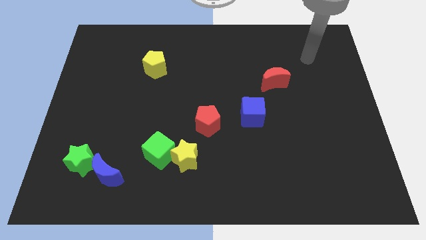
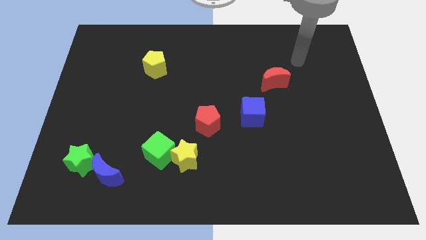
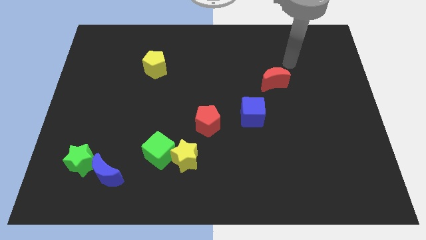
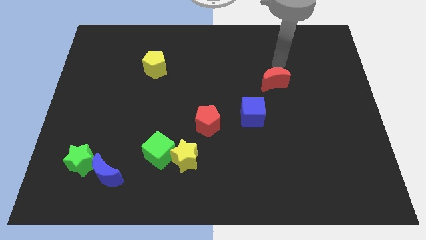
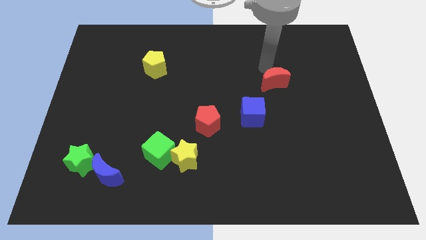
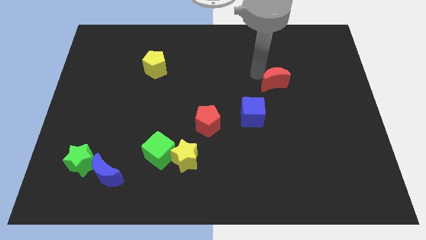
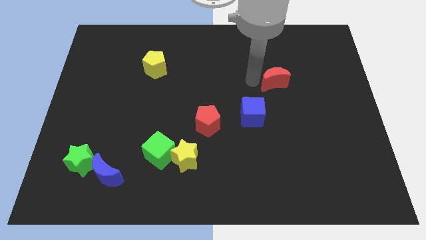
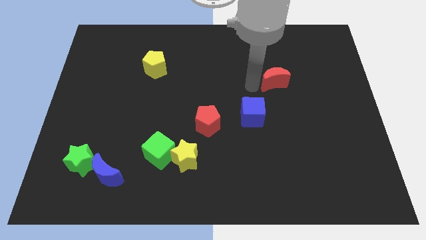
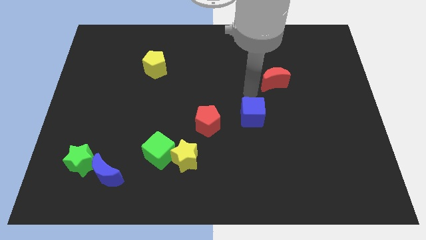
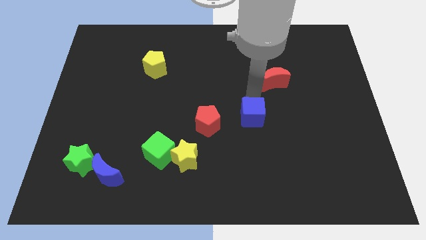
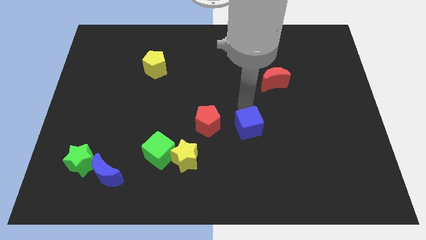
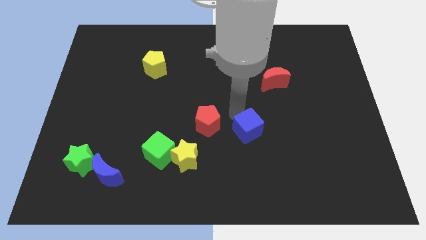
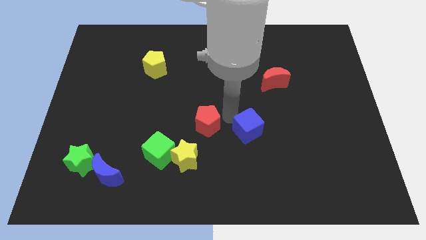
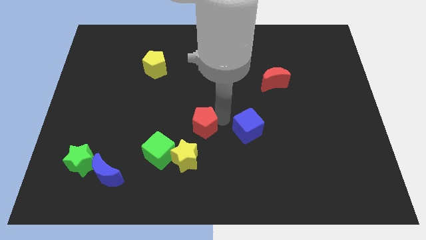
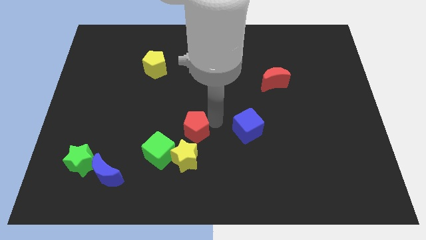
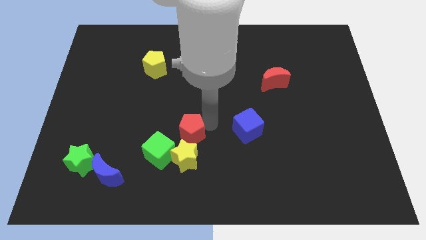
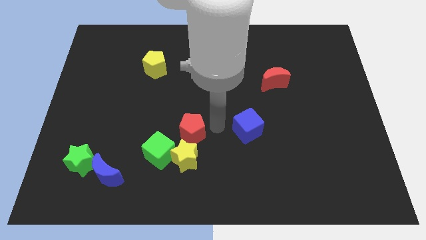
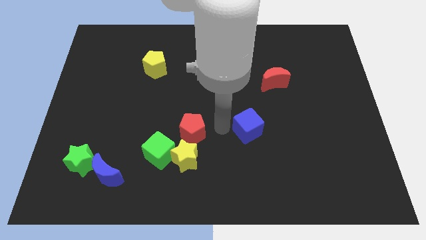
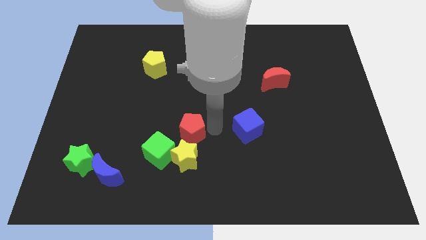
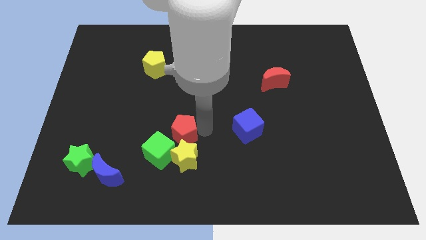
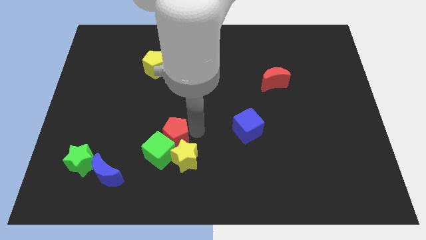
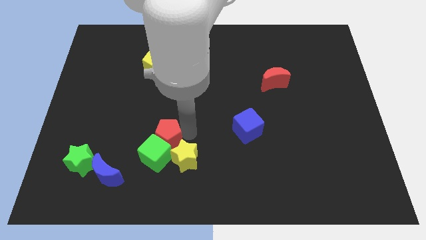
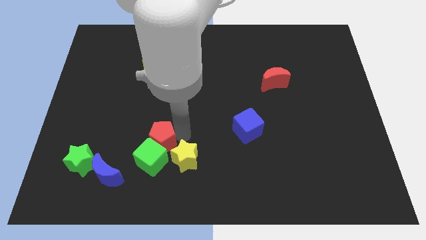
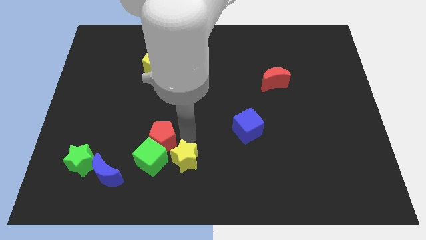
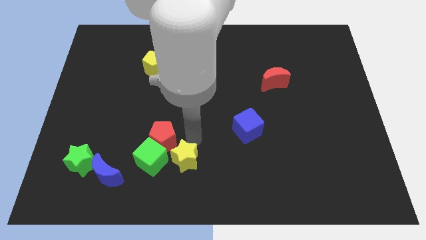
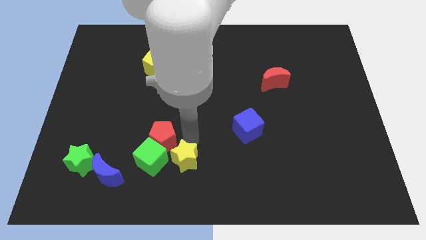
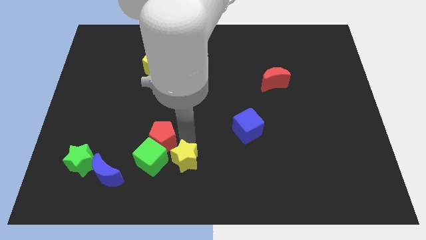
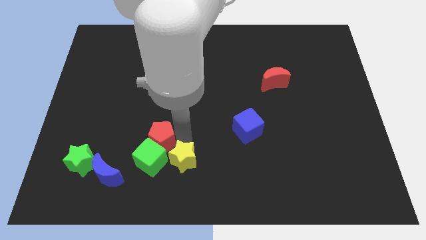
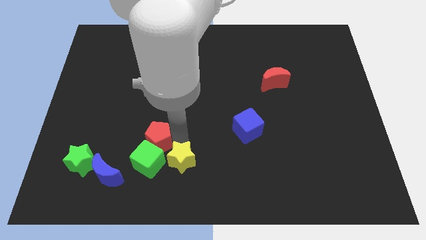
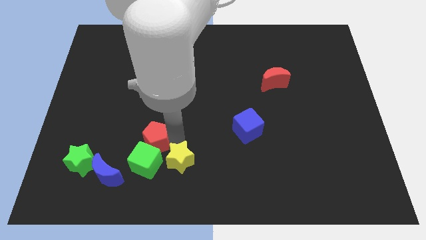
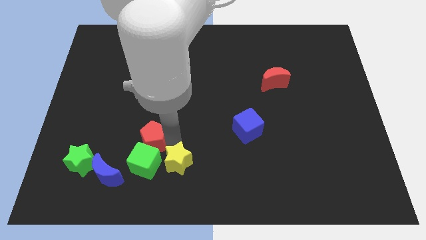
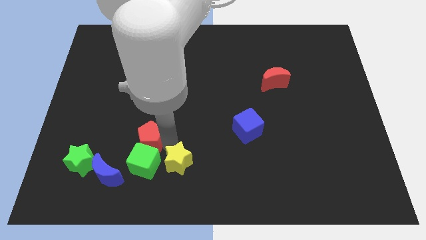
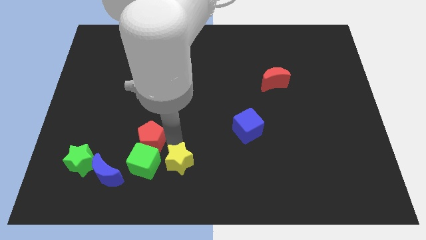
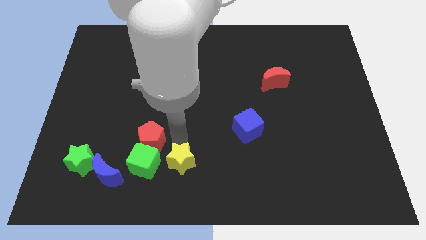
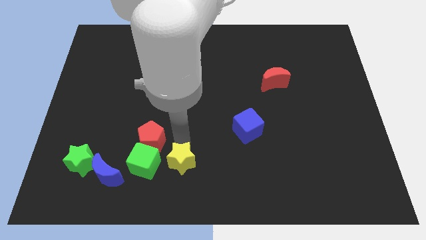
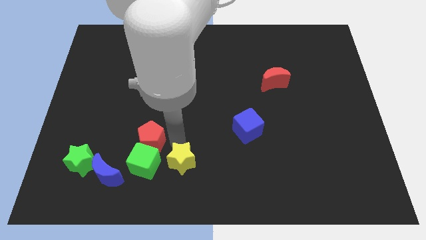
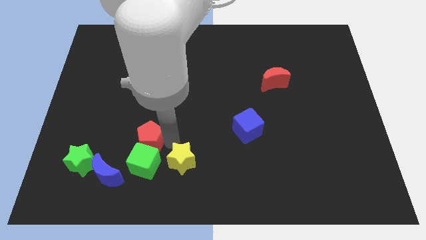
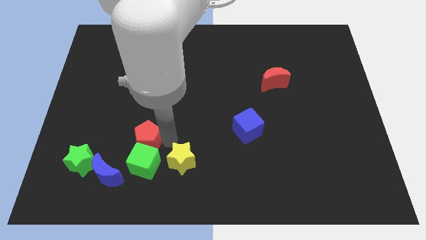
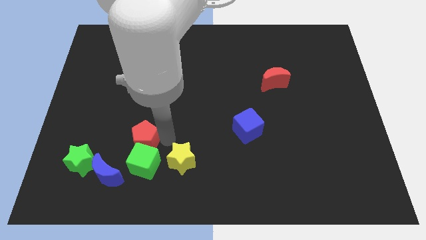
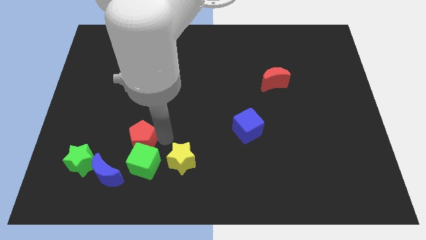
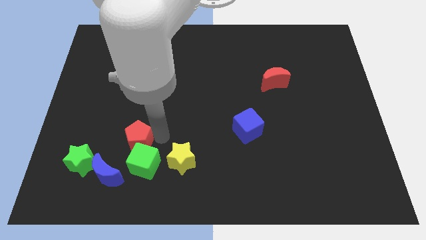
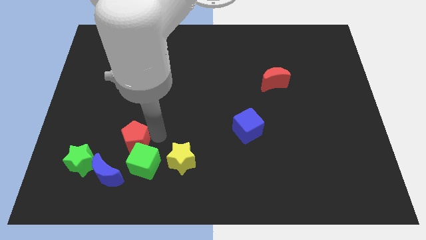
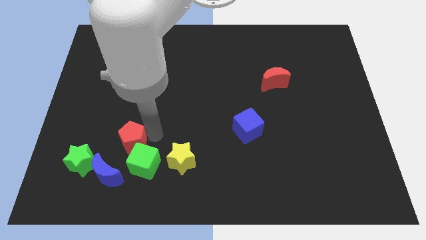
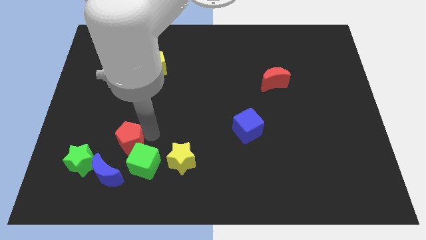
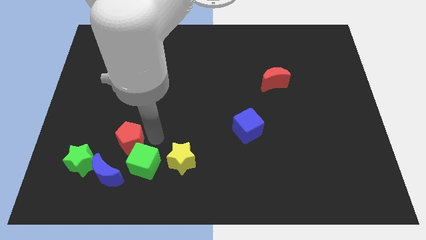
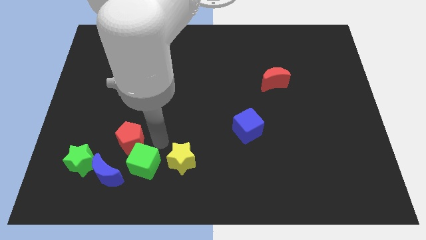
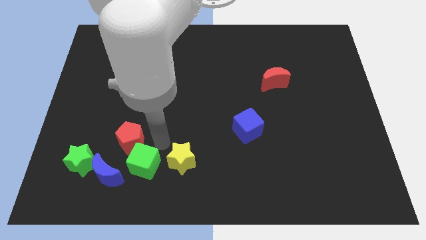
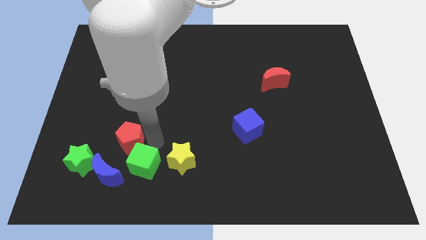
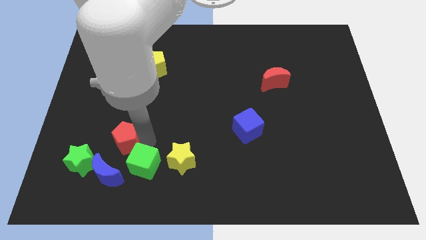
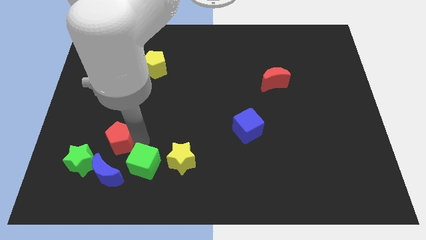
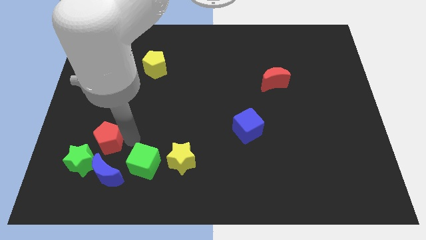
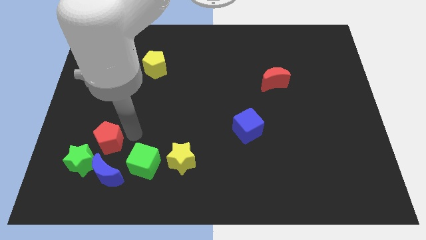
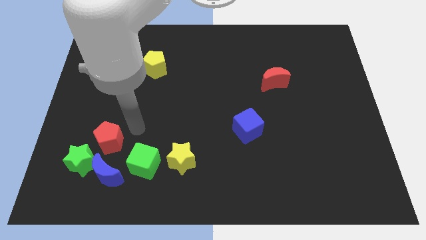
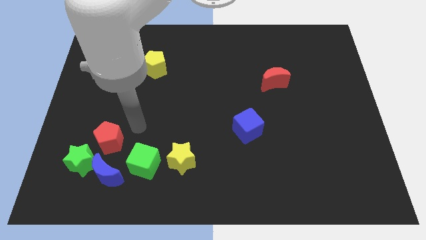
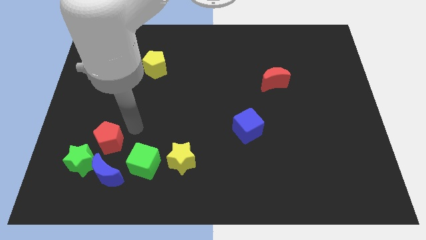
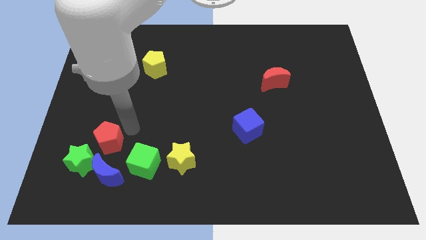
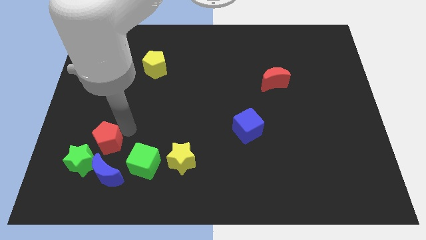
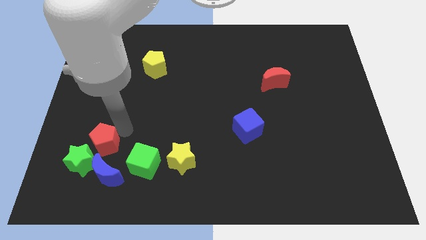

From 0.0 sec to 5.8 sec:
slide the red pentagon diagonally up and to the left of the blue moon

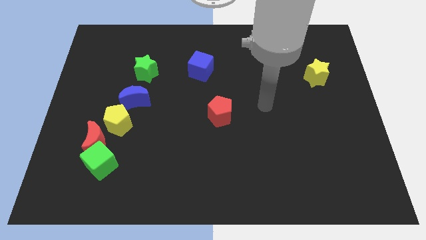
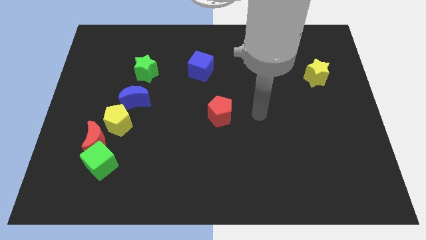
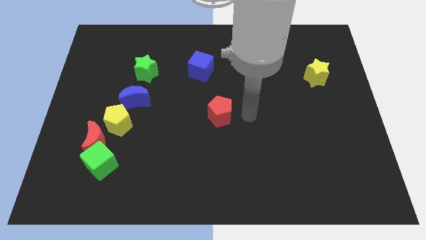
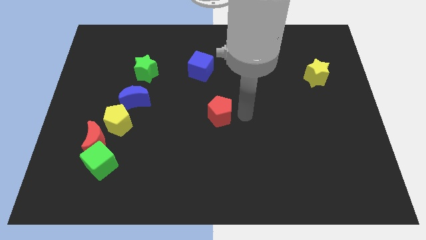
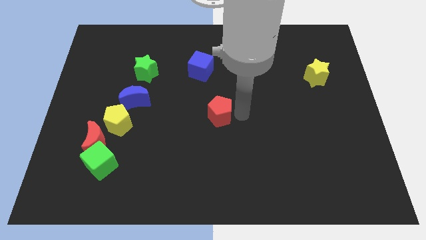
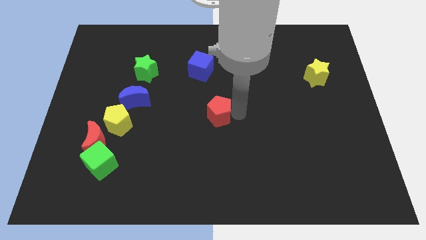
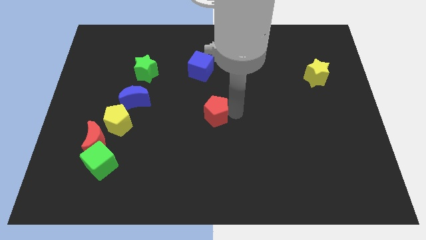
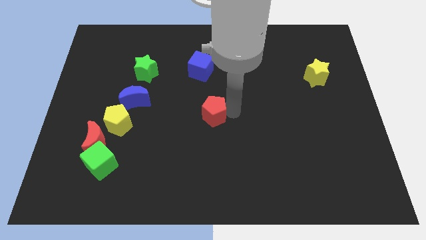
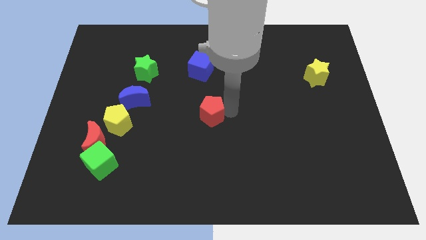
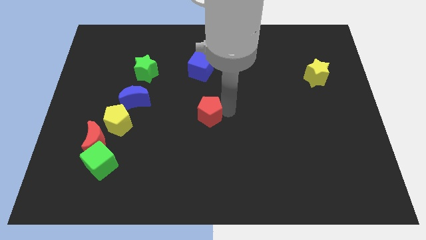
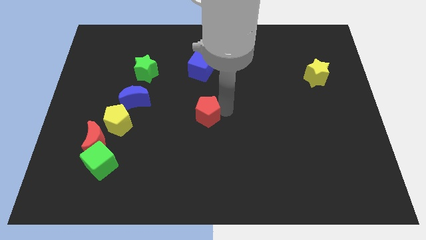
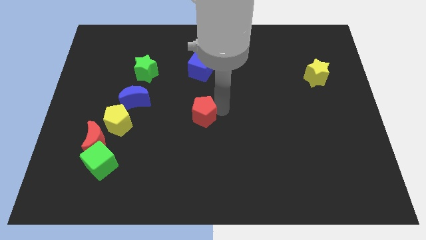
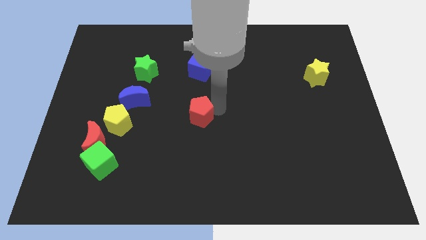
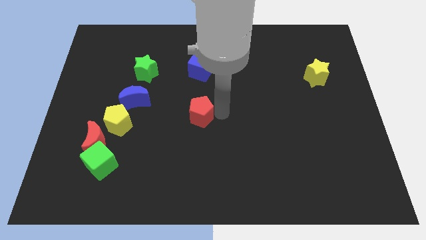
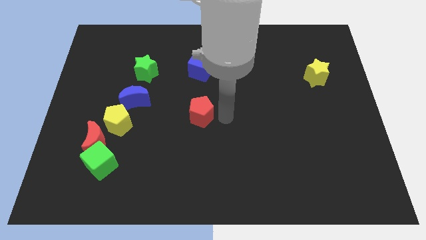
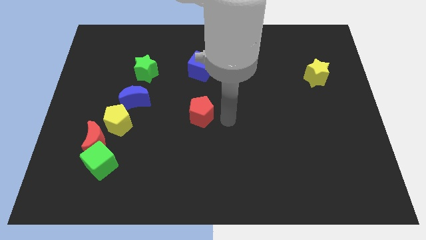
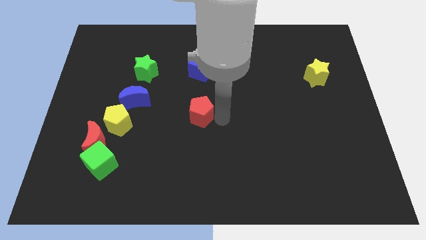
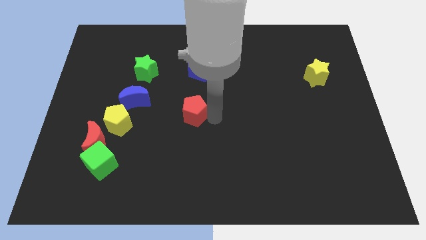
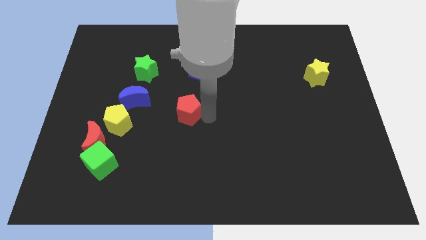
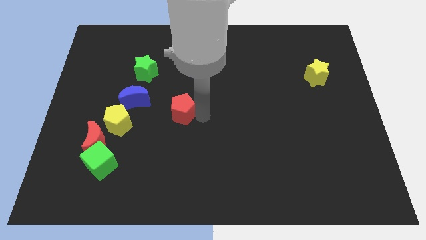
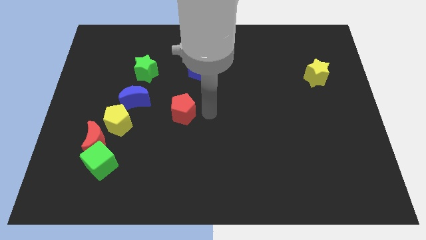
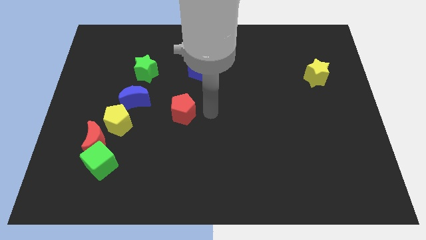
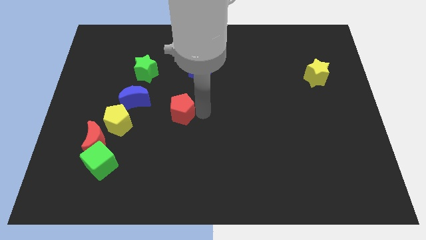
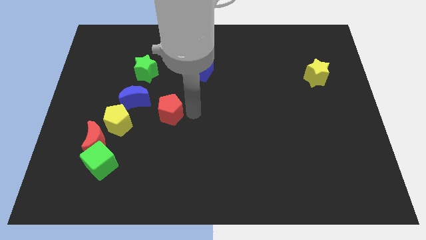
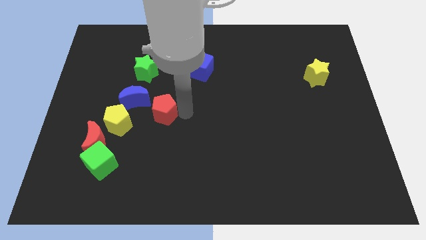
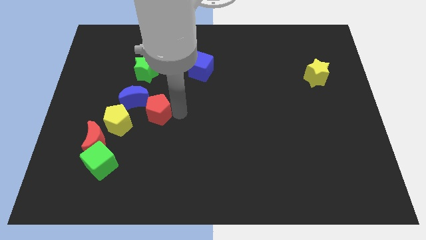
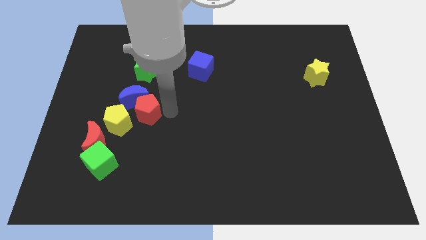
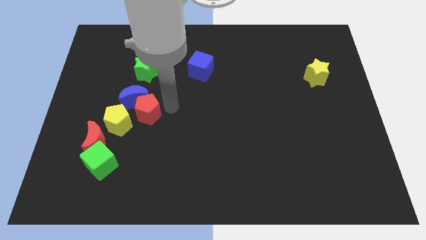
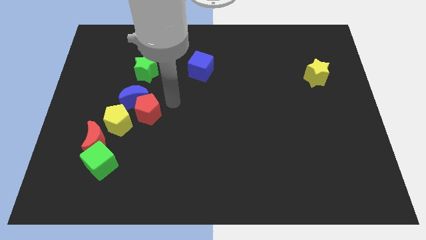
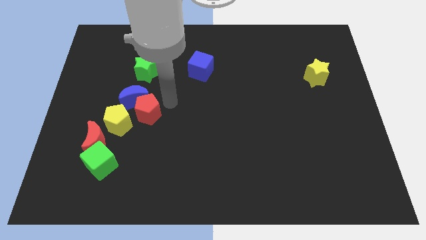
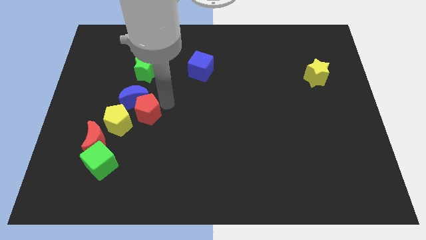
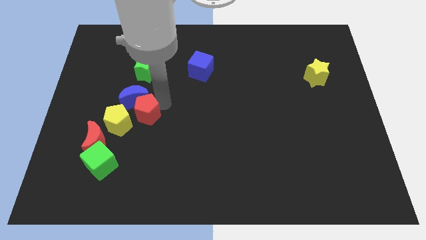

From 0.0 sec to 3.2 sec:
put the red pentagon to the top right of the red moon
